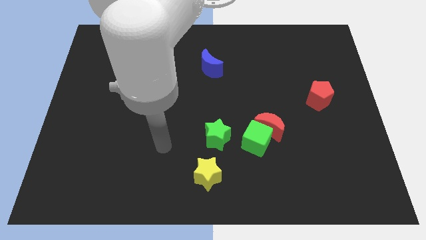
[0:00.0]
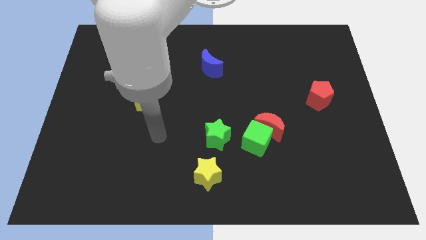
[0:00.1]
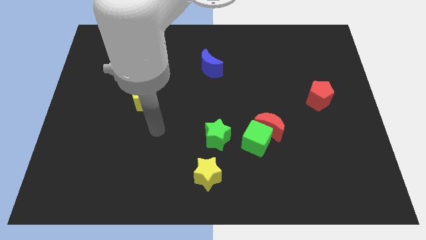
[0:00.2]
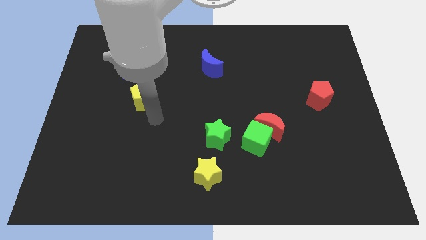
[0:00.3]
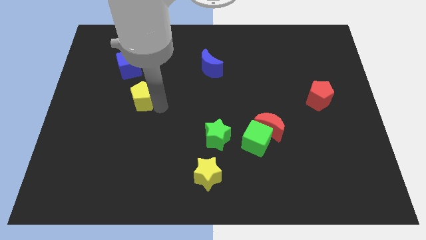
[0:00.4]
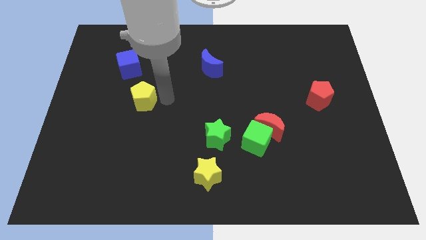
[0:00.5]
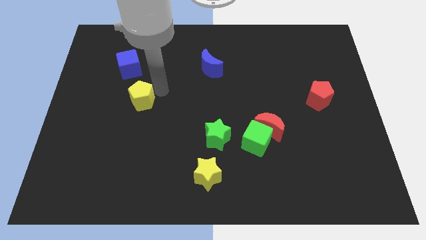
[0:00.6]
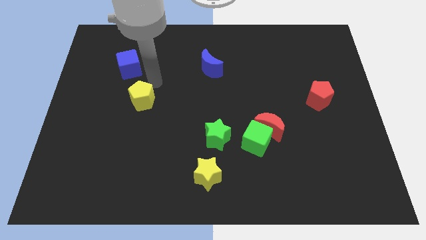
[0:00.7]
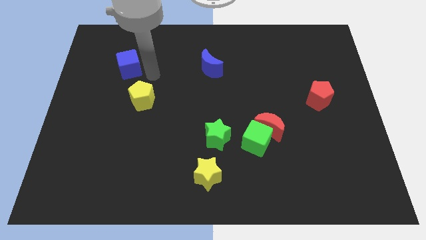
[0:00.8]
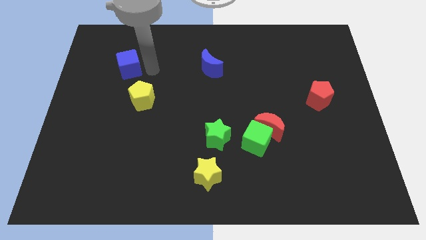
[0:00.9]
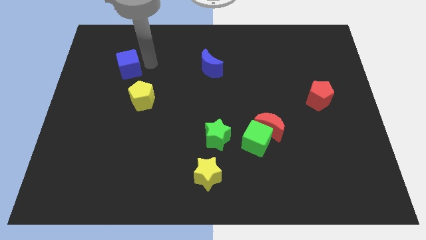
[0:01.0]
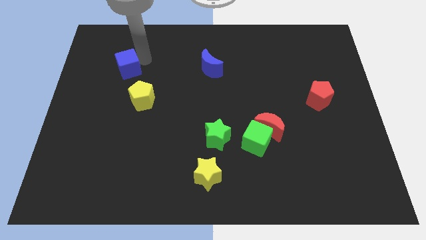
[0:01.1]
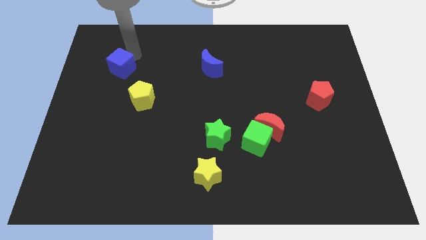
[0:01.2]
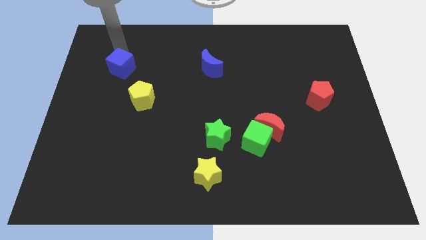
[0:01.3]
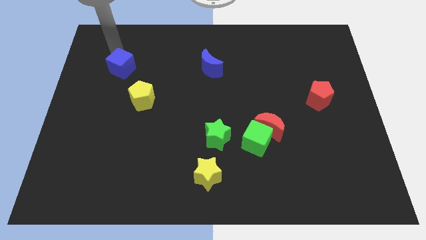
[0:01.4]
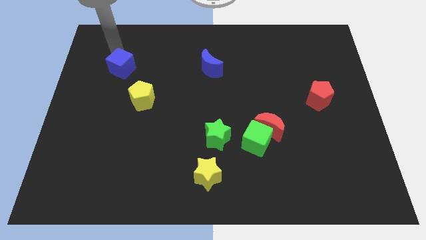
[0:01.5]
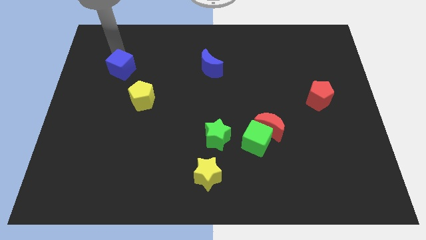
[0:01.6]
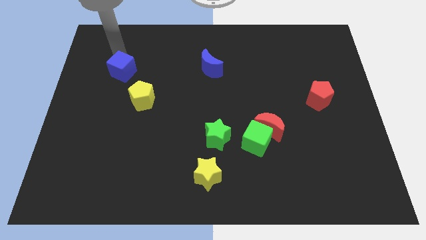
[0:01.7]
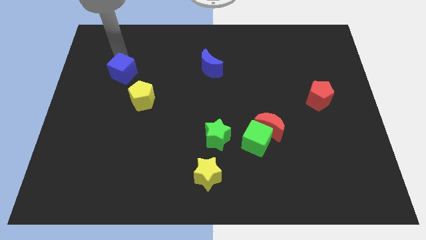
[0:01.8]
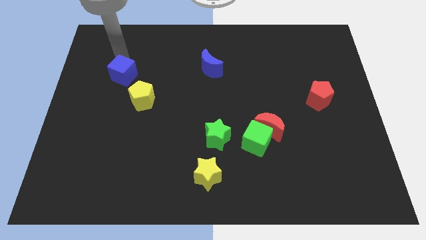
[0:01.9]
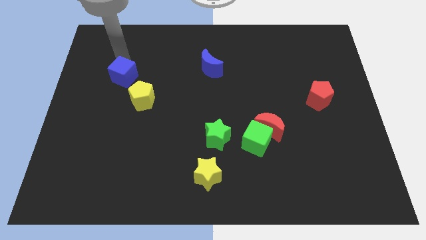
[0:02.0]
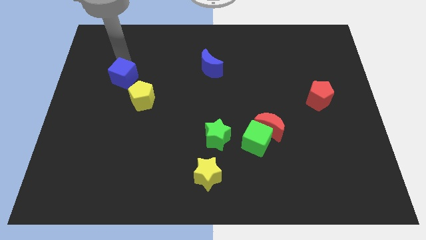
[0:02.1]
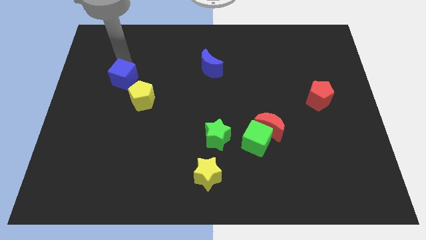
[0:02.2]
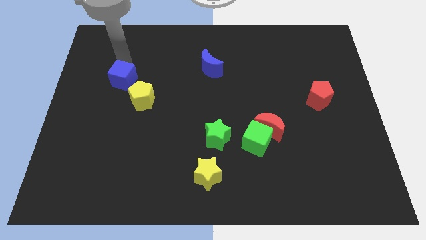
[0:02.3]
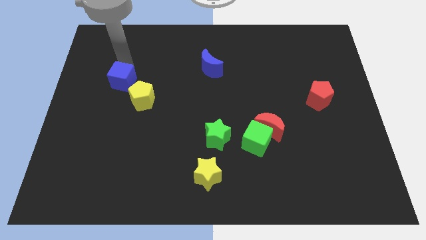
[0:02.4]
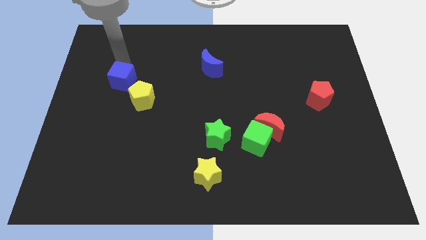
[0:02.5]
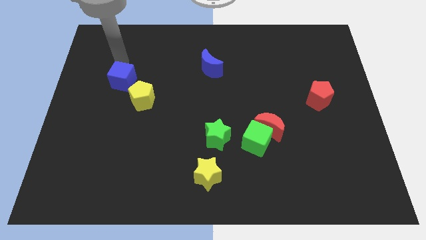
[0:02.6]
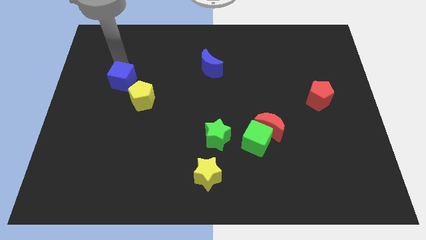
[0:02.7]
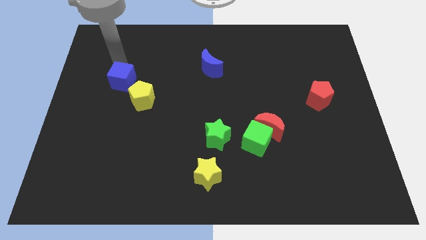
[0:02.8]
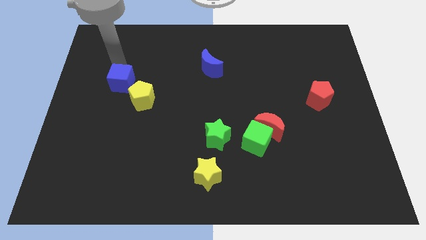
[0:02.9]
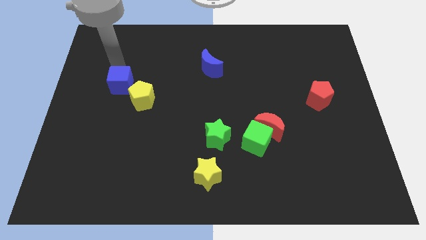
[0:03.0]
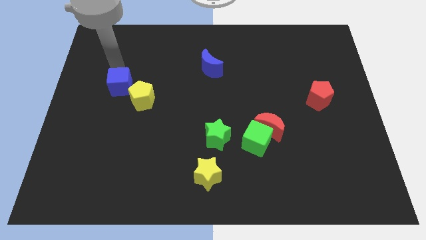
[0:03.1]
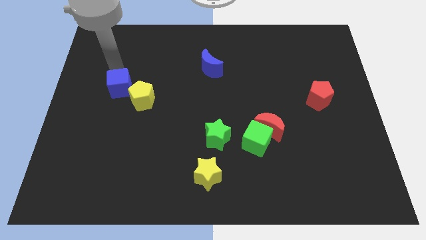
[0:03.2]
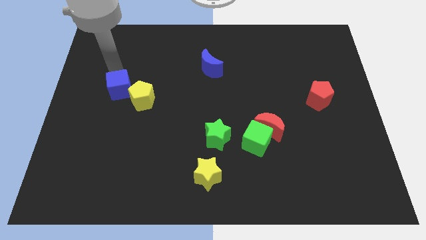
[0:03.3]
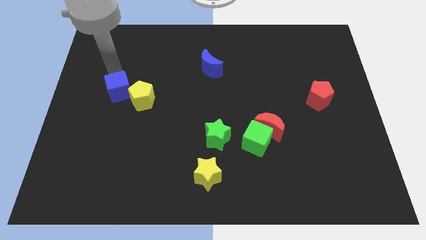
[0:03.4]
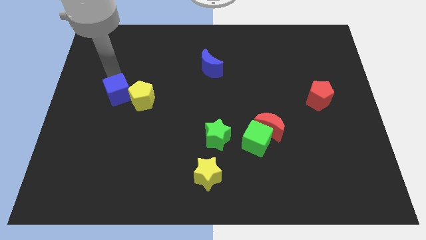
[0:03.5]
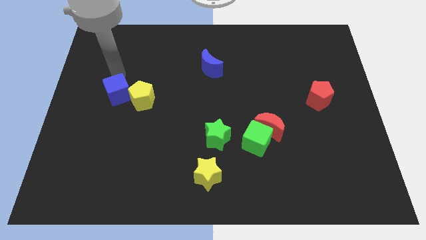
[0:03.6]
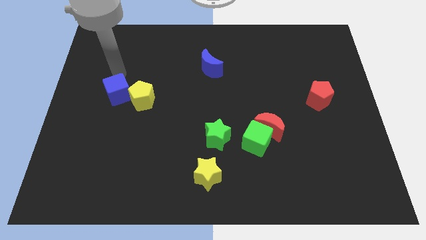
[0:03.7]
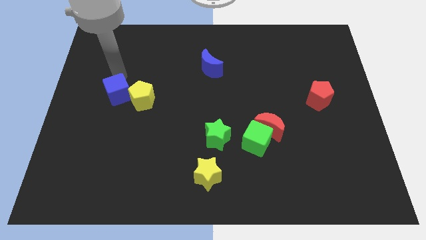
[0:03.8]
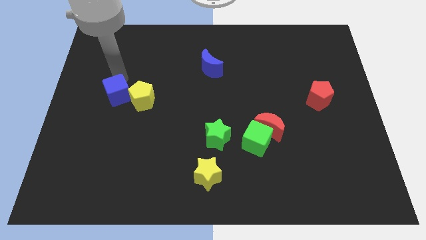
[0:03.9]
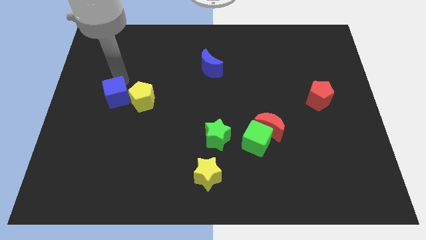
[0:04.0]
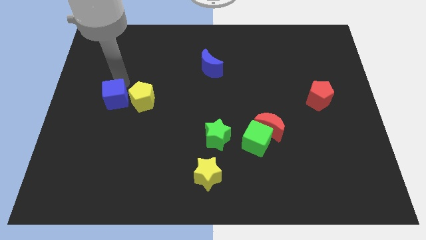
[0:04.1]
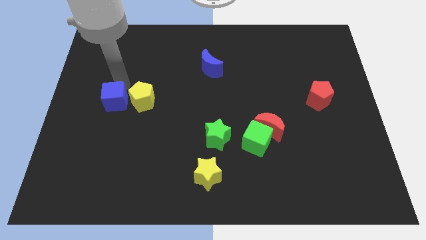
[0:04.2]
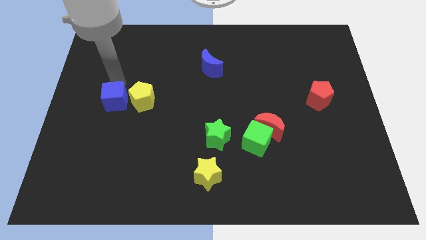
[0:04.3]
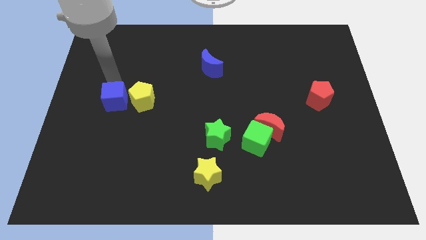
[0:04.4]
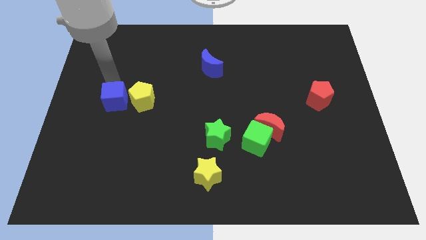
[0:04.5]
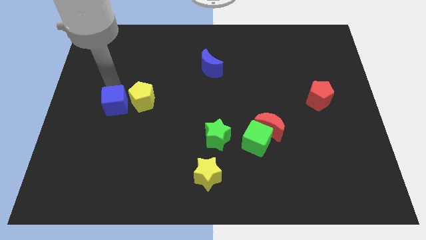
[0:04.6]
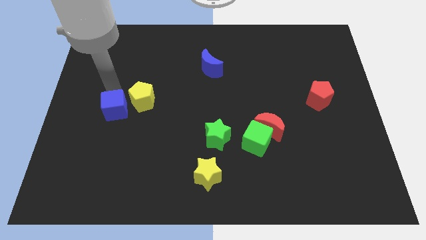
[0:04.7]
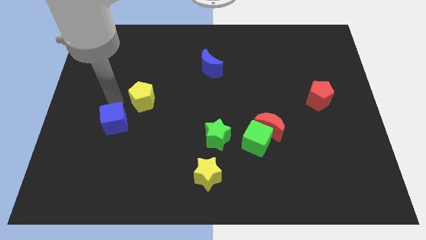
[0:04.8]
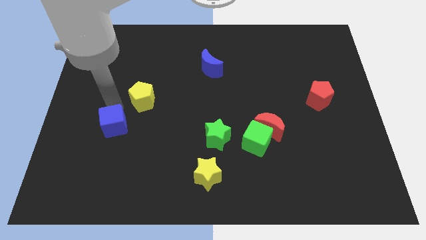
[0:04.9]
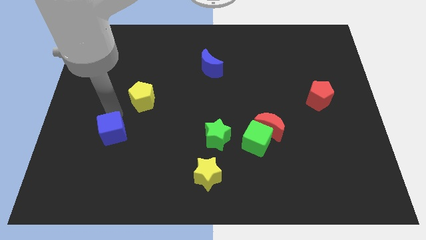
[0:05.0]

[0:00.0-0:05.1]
move the blue cube downwards

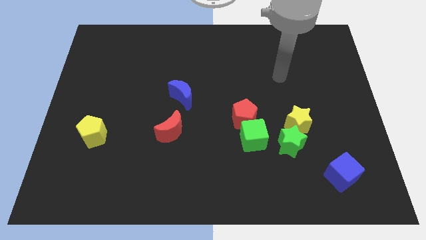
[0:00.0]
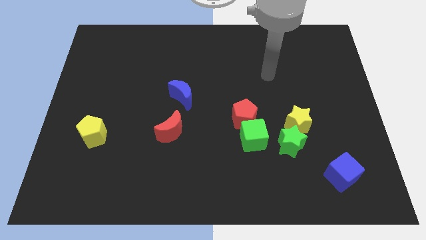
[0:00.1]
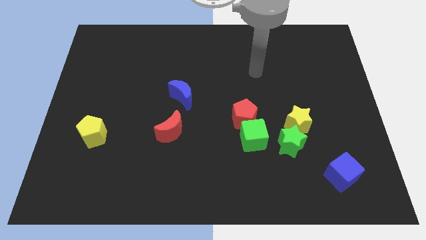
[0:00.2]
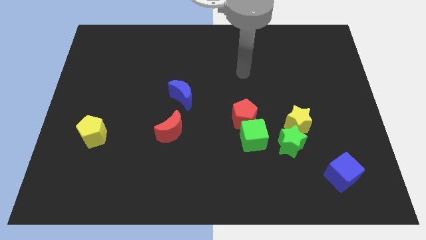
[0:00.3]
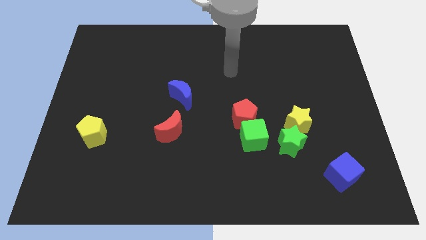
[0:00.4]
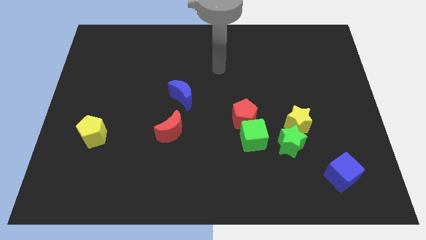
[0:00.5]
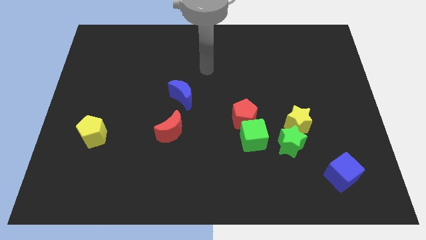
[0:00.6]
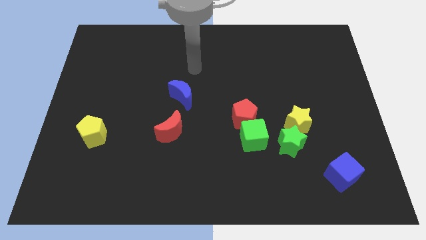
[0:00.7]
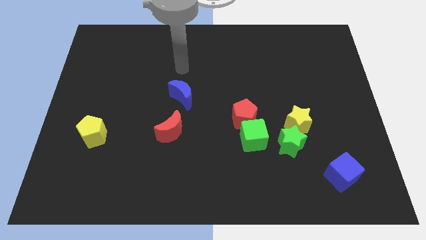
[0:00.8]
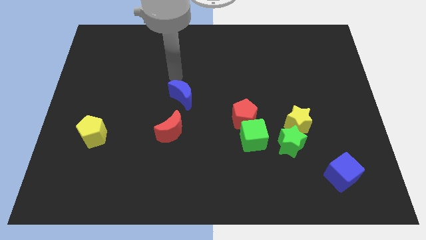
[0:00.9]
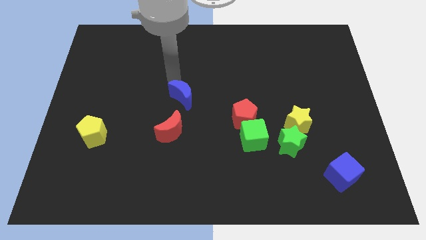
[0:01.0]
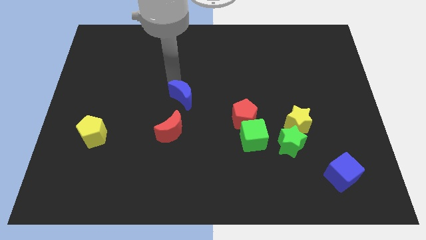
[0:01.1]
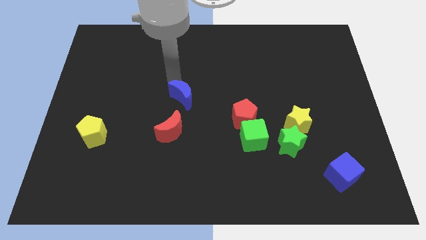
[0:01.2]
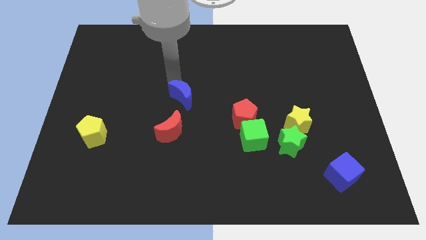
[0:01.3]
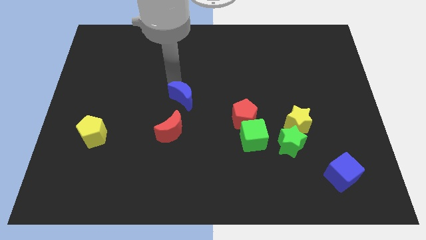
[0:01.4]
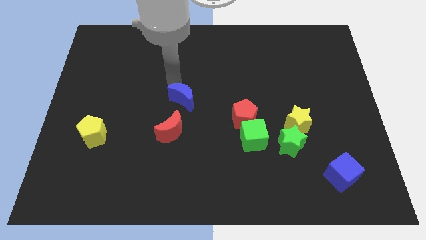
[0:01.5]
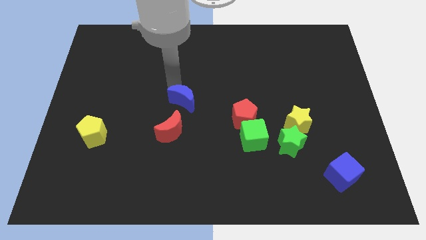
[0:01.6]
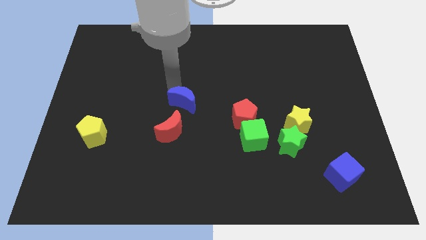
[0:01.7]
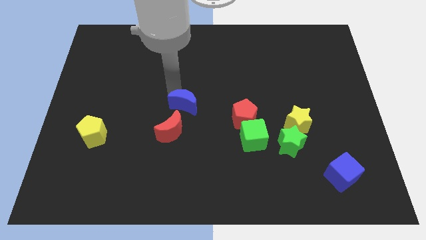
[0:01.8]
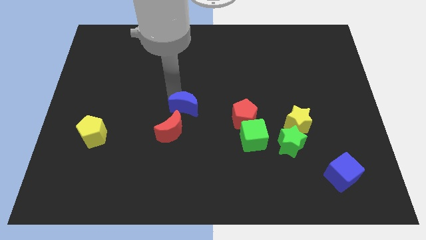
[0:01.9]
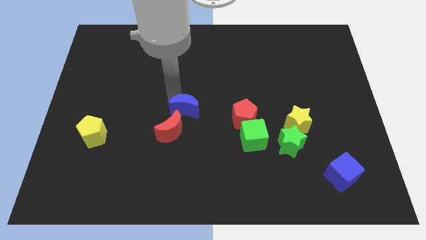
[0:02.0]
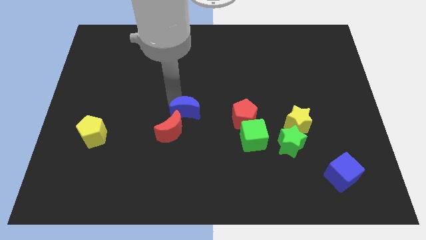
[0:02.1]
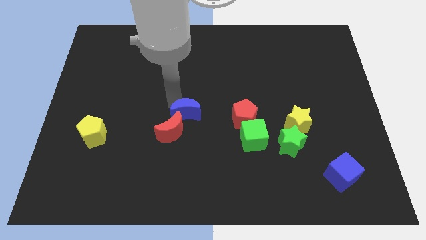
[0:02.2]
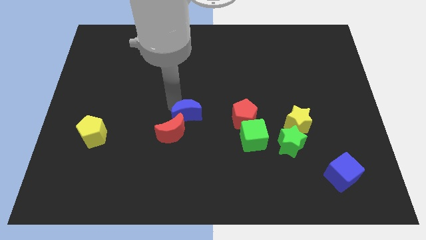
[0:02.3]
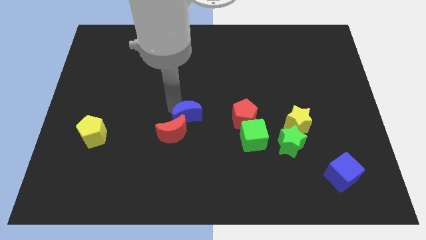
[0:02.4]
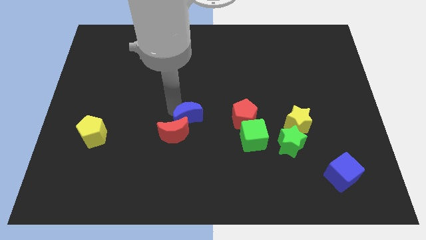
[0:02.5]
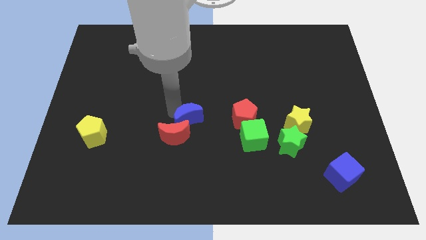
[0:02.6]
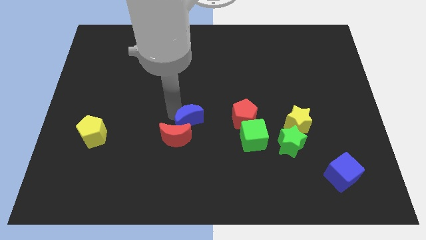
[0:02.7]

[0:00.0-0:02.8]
slide the blue moon slightly downwards
